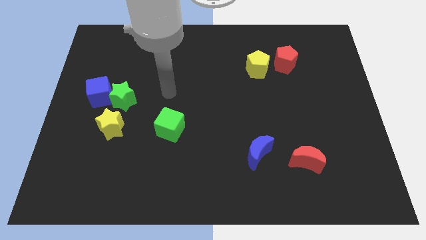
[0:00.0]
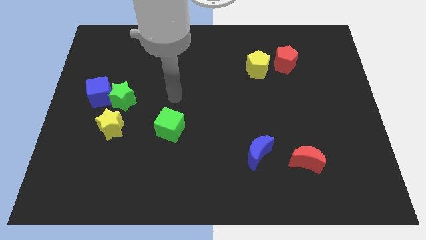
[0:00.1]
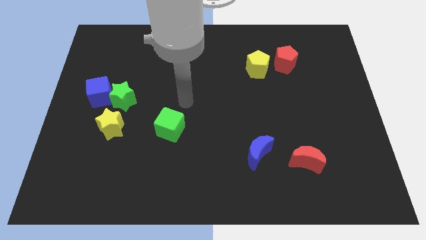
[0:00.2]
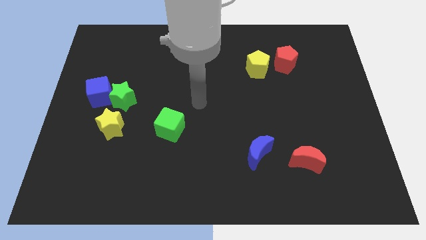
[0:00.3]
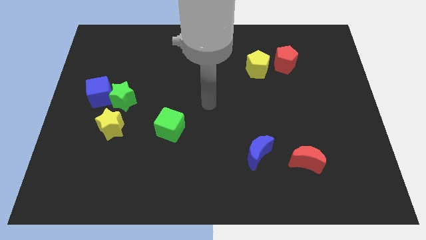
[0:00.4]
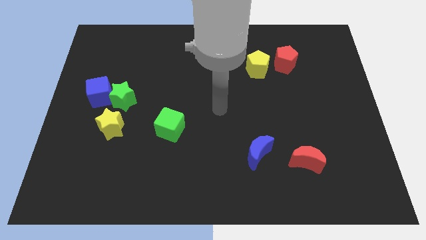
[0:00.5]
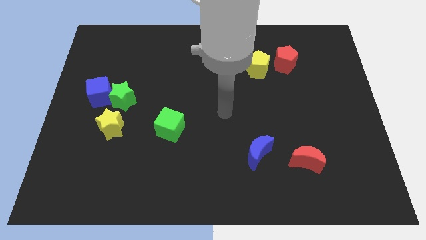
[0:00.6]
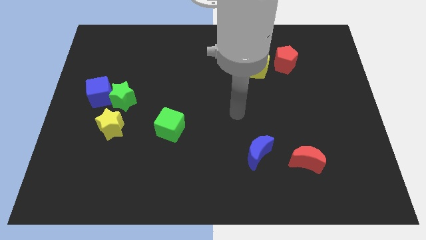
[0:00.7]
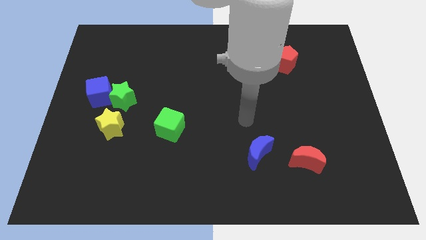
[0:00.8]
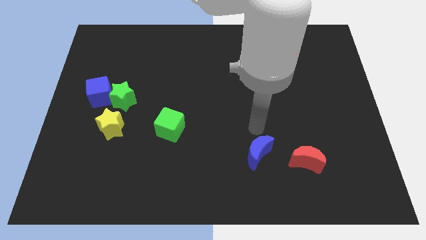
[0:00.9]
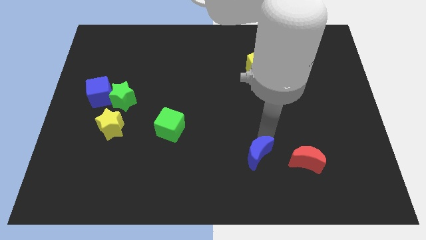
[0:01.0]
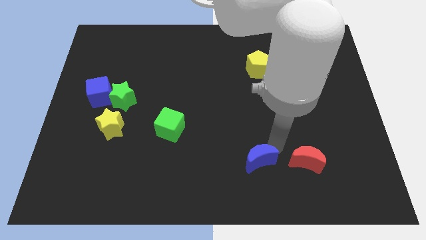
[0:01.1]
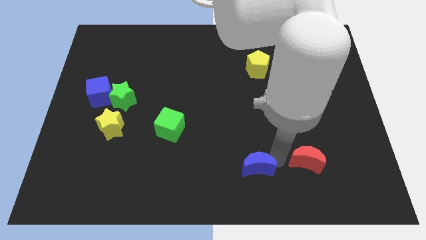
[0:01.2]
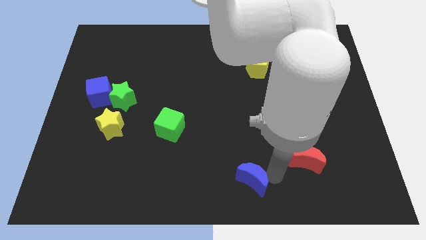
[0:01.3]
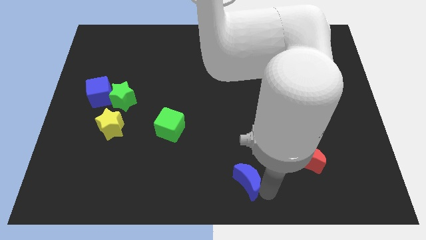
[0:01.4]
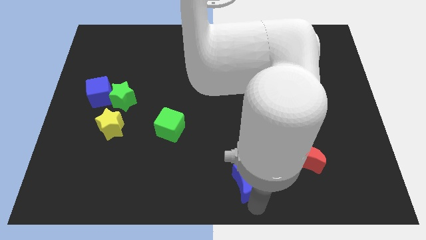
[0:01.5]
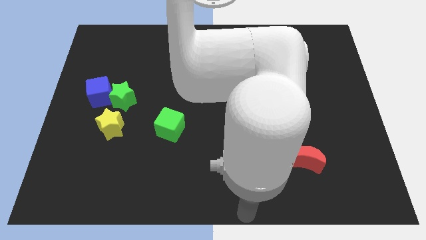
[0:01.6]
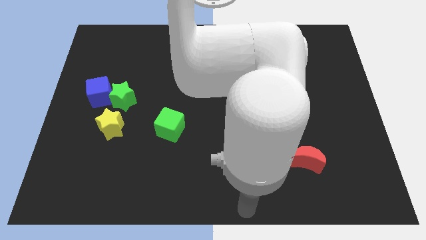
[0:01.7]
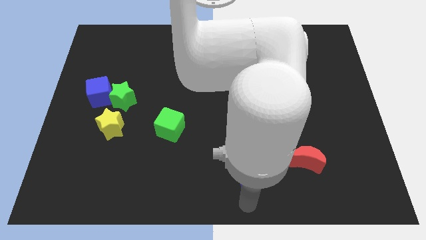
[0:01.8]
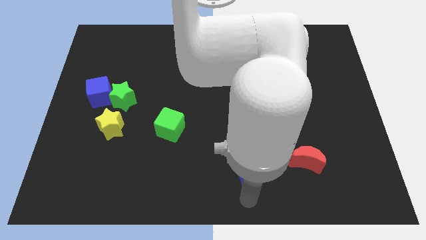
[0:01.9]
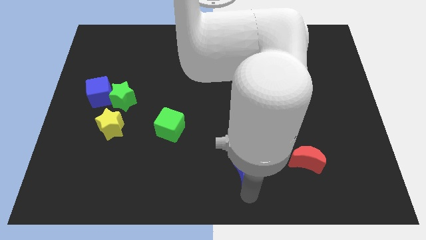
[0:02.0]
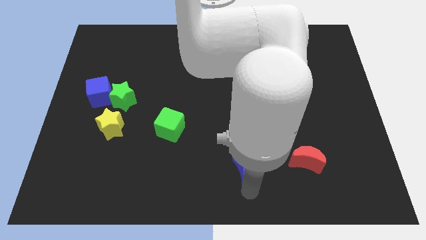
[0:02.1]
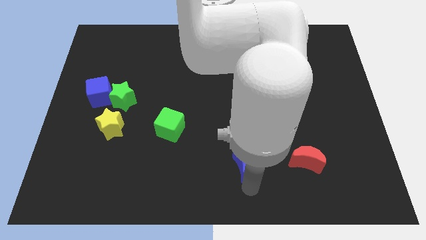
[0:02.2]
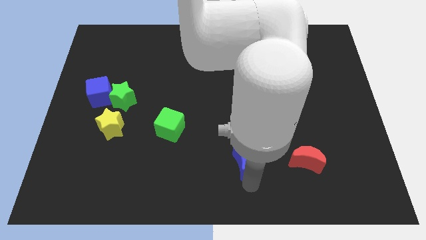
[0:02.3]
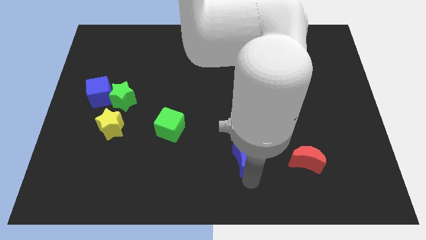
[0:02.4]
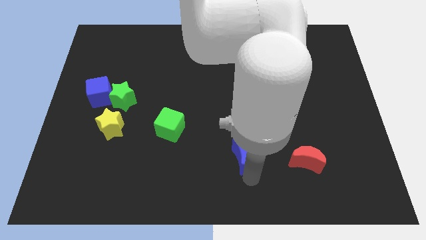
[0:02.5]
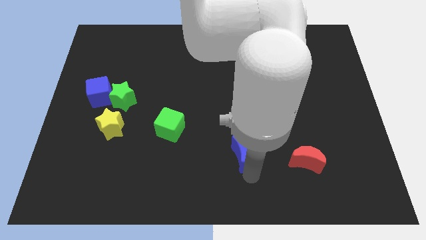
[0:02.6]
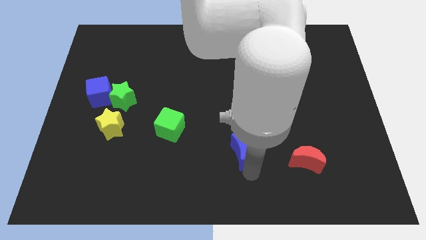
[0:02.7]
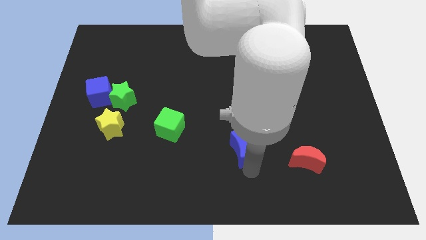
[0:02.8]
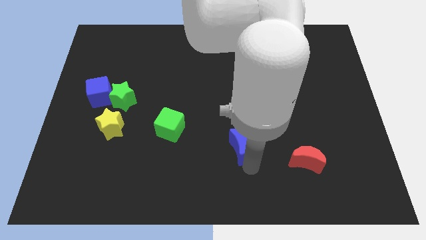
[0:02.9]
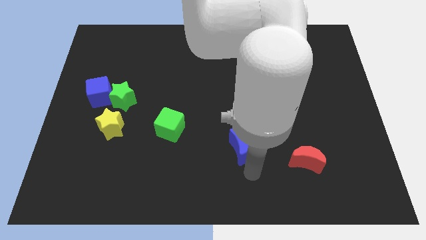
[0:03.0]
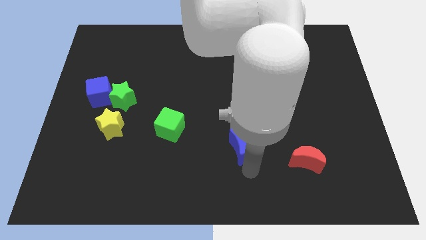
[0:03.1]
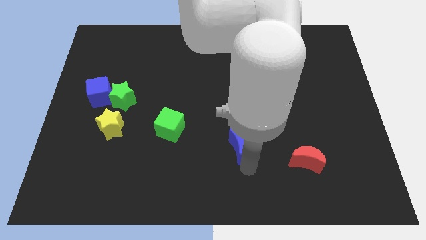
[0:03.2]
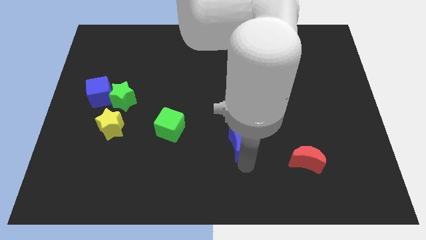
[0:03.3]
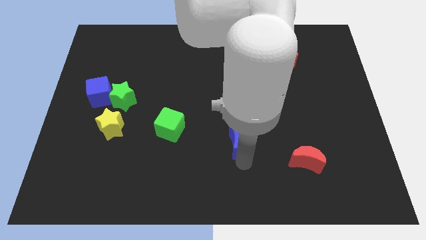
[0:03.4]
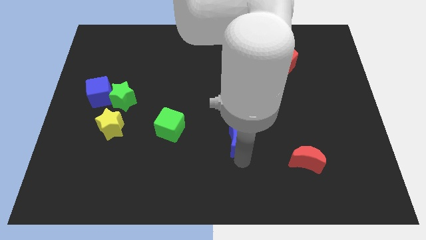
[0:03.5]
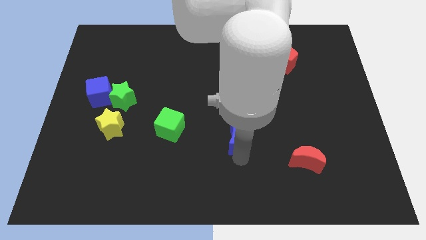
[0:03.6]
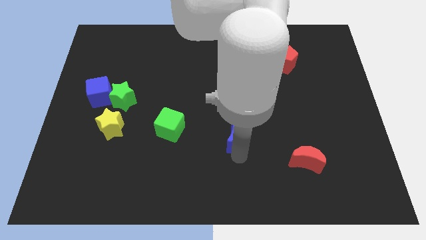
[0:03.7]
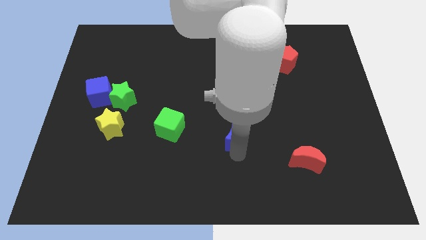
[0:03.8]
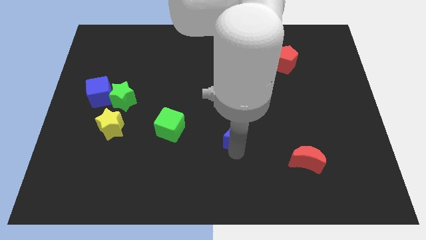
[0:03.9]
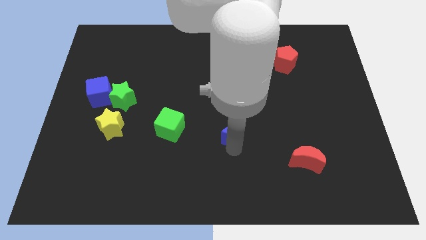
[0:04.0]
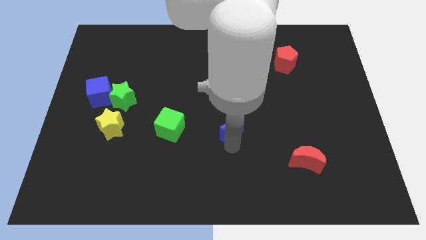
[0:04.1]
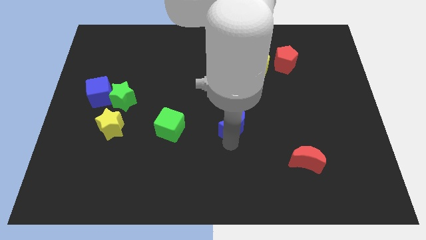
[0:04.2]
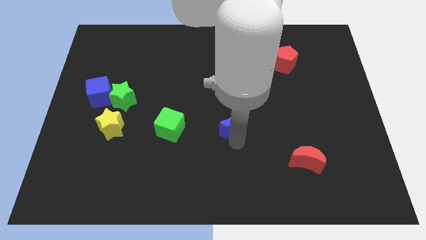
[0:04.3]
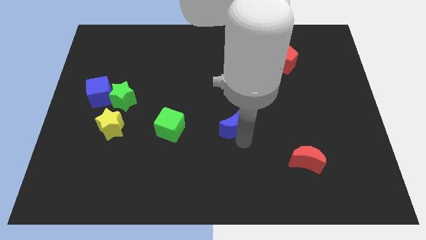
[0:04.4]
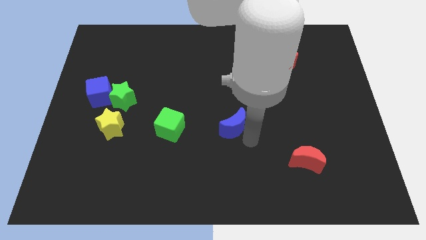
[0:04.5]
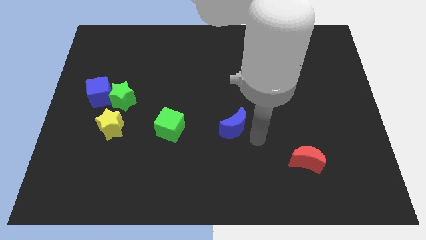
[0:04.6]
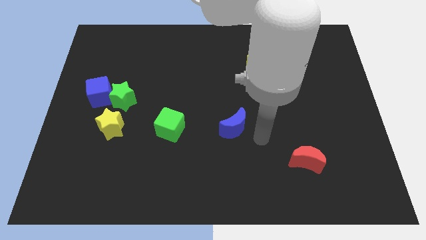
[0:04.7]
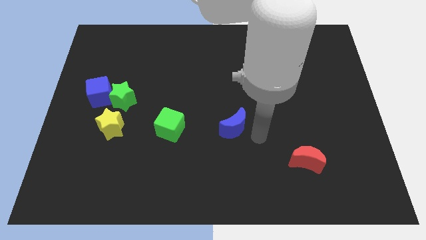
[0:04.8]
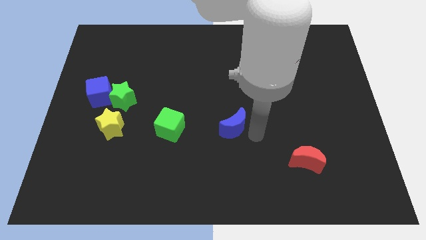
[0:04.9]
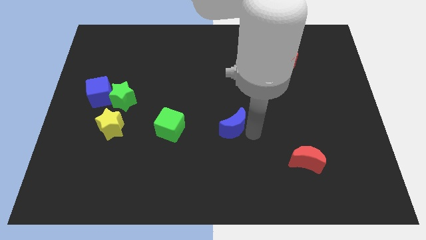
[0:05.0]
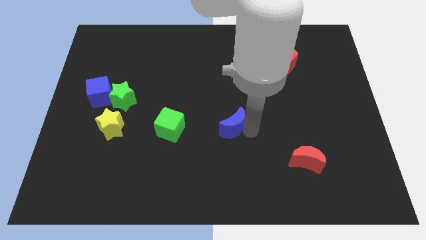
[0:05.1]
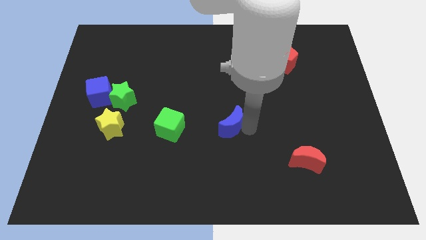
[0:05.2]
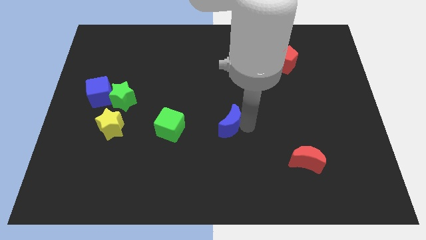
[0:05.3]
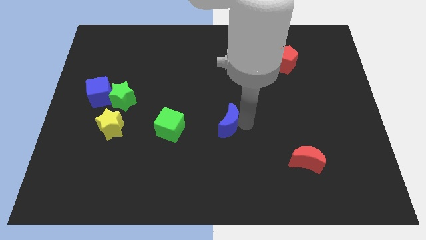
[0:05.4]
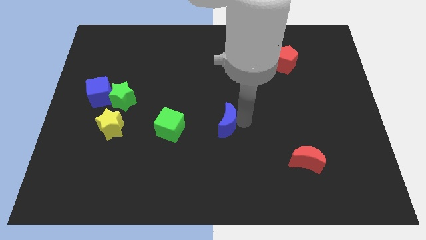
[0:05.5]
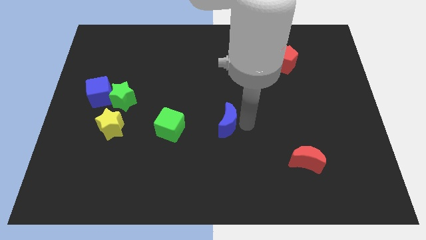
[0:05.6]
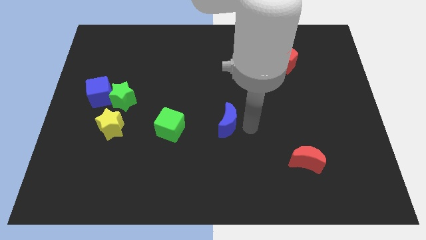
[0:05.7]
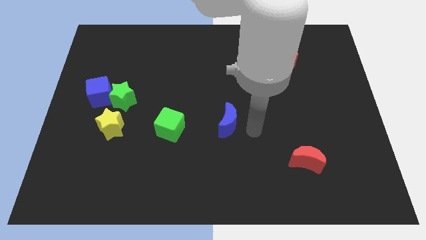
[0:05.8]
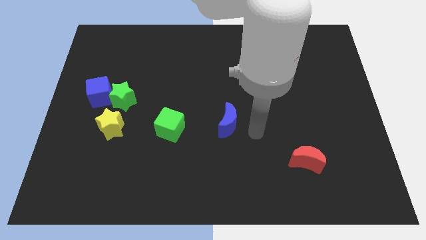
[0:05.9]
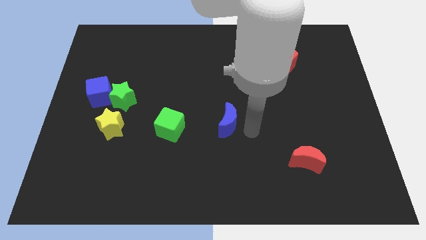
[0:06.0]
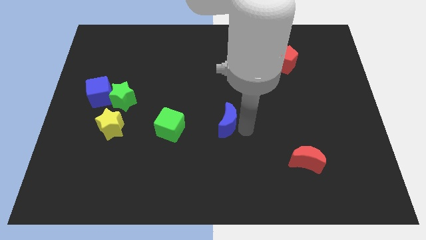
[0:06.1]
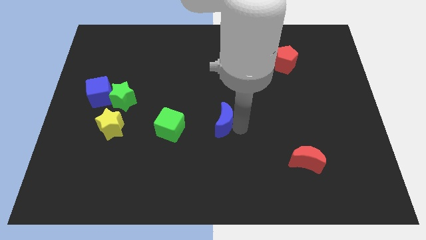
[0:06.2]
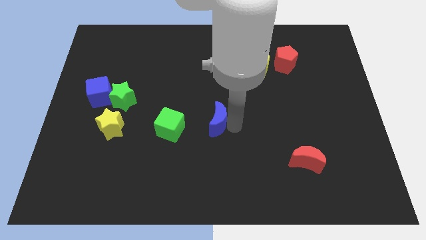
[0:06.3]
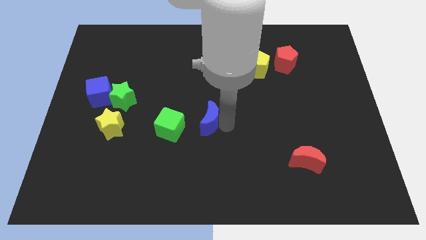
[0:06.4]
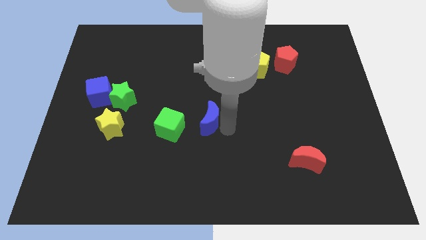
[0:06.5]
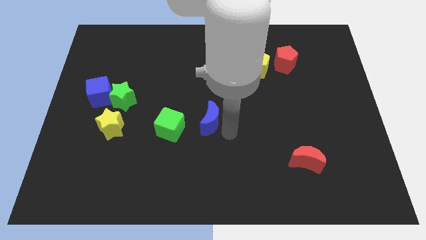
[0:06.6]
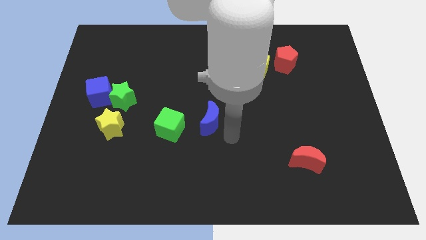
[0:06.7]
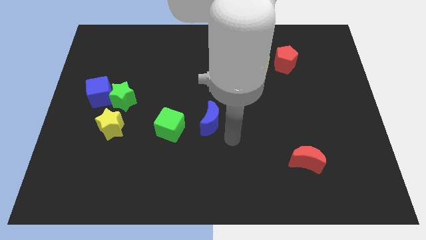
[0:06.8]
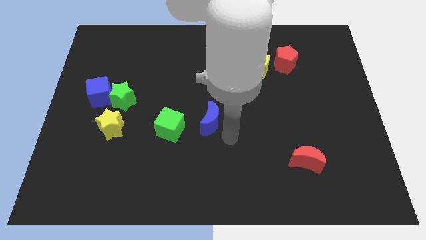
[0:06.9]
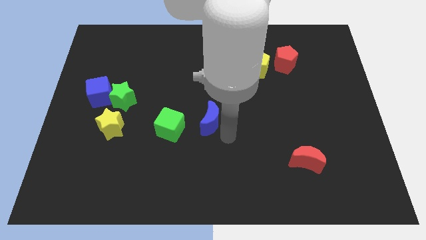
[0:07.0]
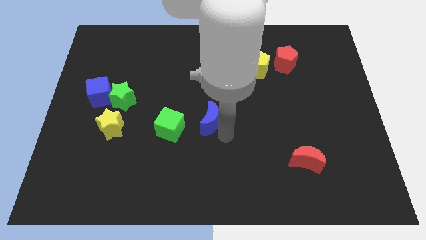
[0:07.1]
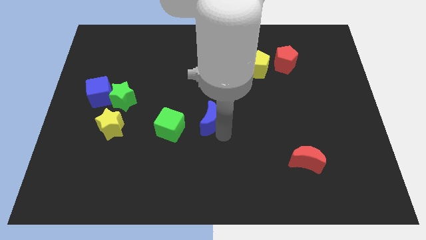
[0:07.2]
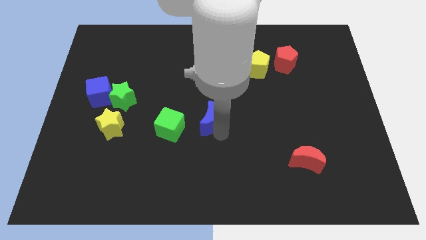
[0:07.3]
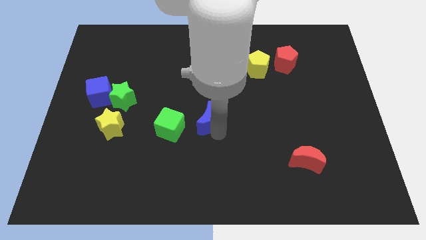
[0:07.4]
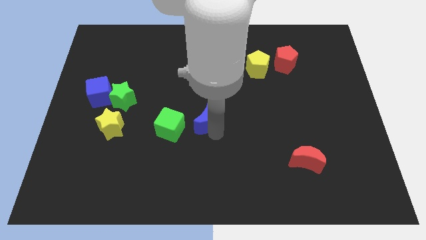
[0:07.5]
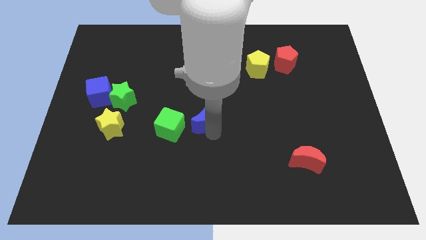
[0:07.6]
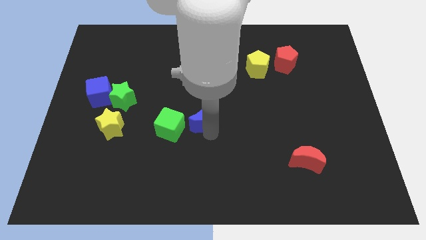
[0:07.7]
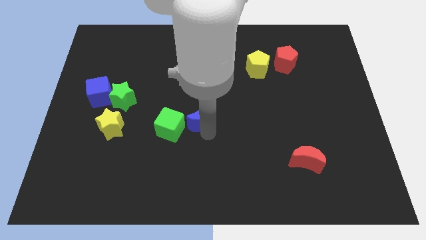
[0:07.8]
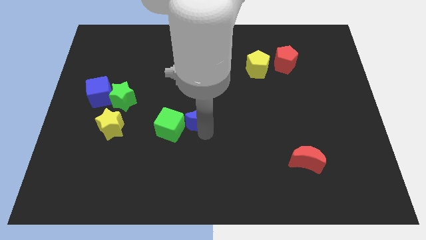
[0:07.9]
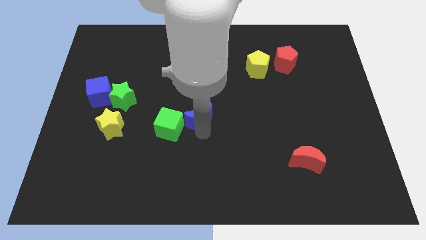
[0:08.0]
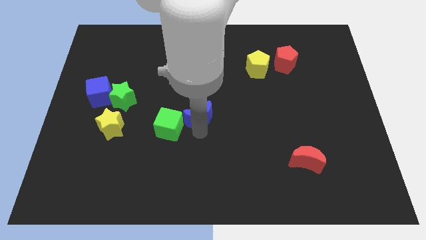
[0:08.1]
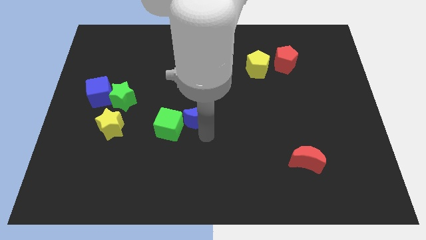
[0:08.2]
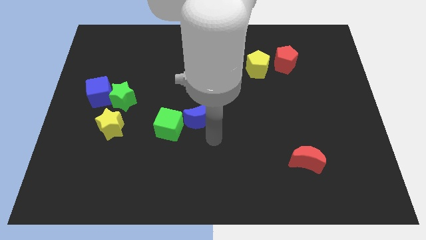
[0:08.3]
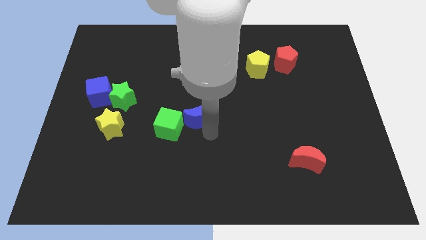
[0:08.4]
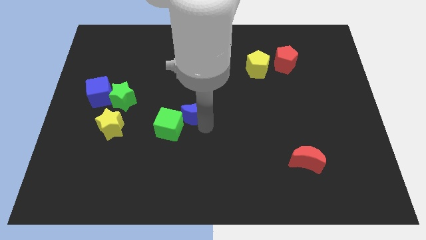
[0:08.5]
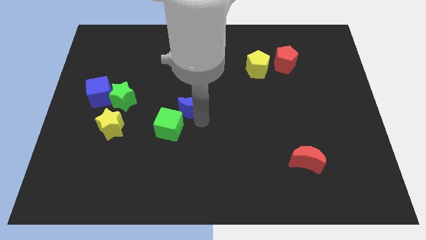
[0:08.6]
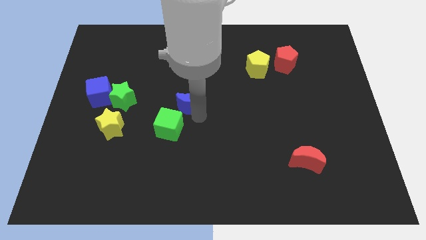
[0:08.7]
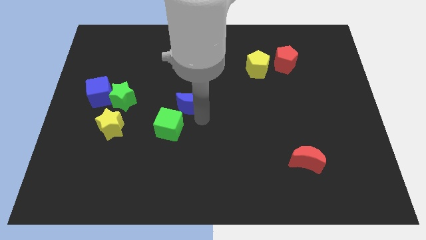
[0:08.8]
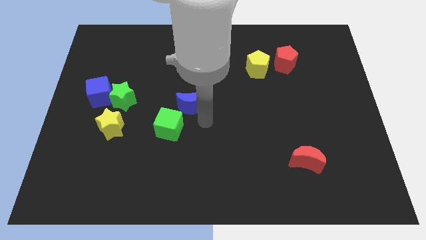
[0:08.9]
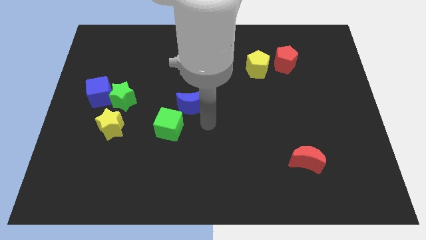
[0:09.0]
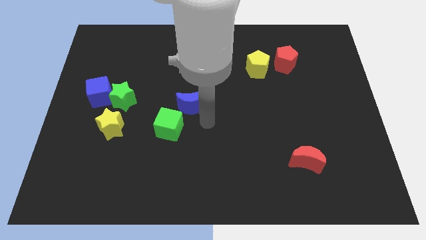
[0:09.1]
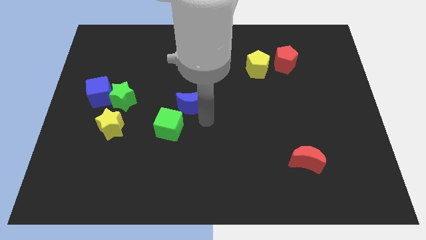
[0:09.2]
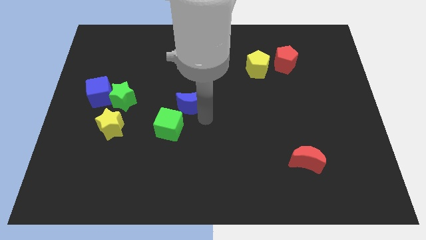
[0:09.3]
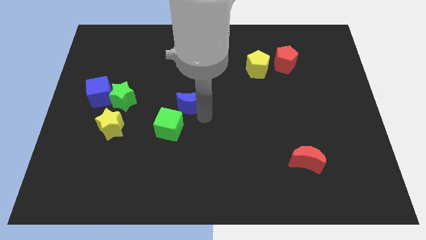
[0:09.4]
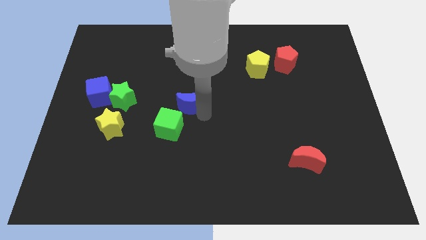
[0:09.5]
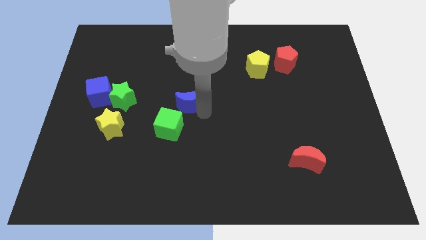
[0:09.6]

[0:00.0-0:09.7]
move the blue moon up and then to the left
